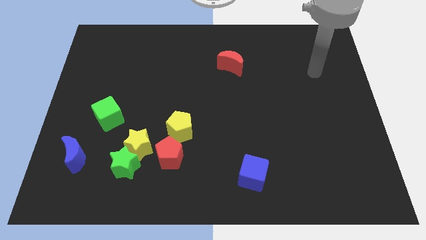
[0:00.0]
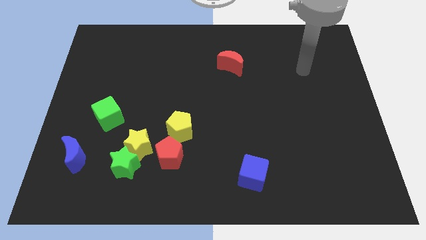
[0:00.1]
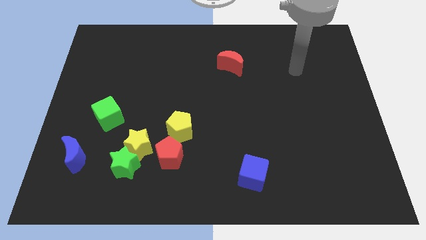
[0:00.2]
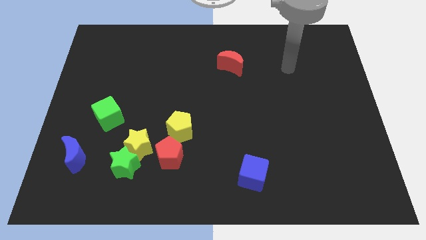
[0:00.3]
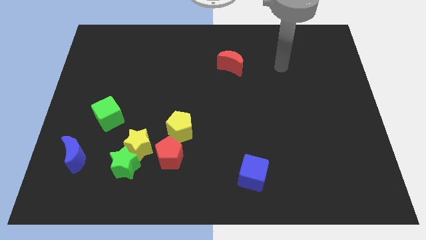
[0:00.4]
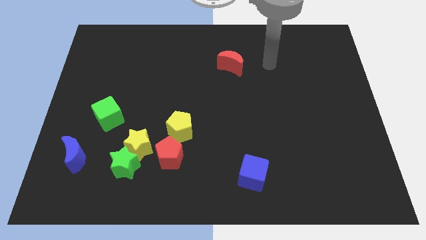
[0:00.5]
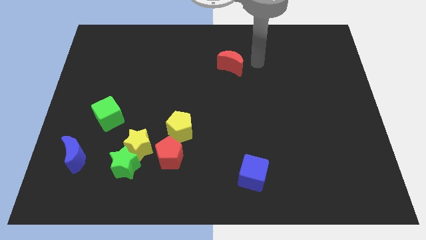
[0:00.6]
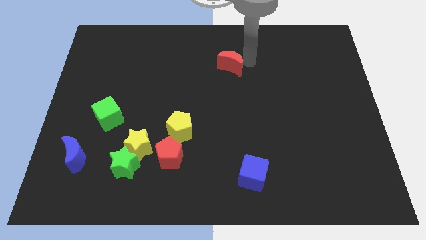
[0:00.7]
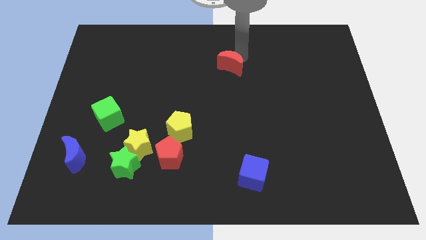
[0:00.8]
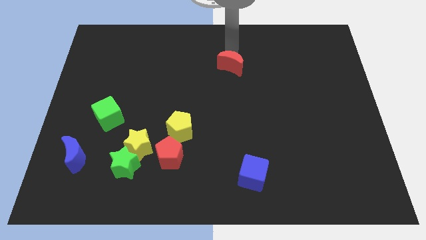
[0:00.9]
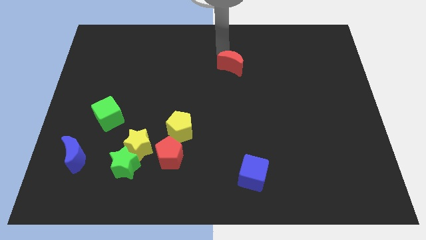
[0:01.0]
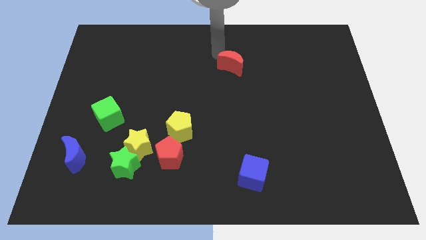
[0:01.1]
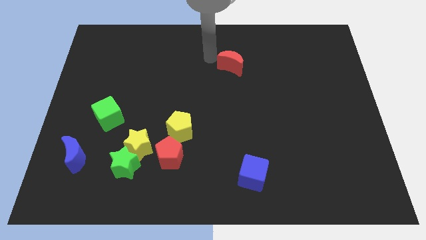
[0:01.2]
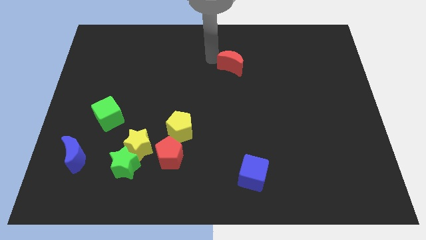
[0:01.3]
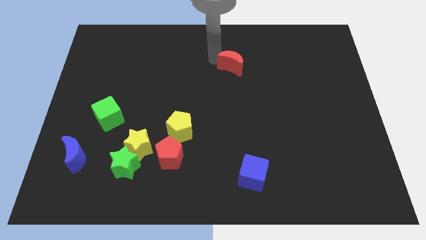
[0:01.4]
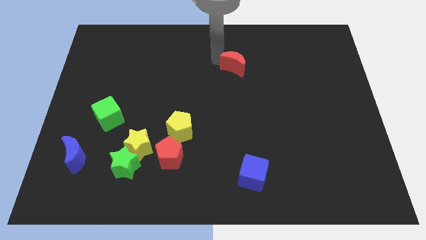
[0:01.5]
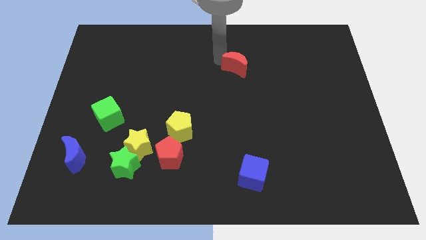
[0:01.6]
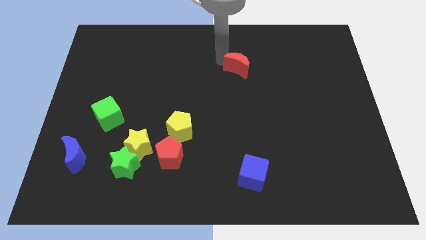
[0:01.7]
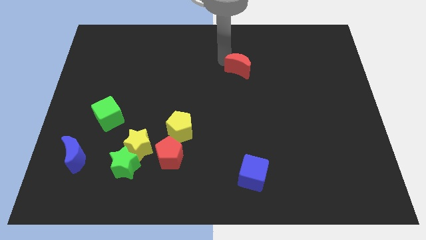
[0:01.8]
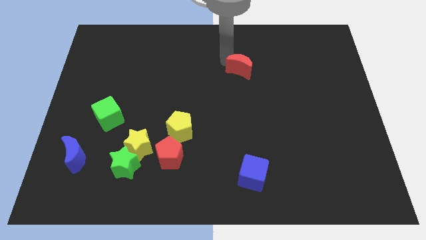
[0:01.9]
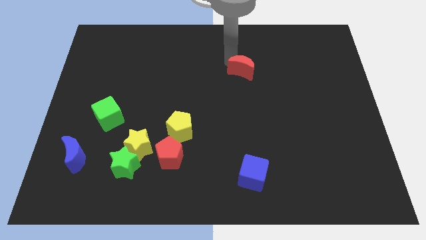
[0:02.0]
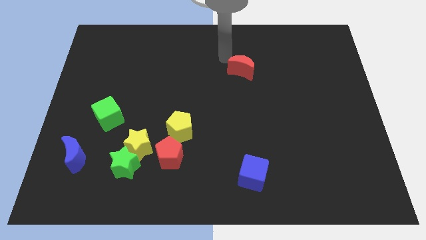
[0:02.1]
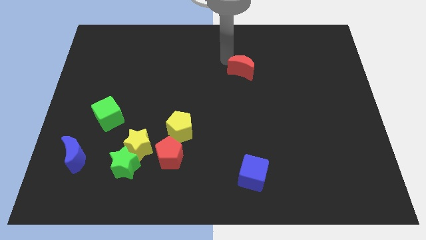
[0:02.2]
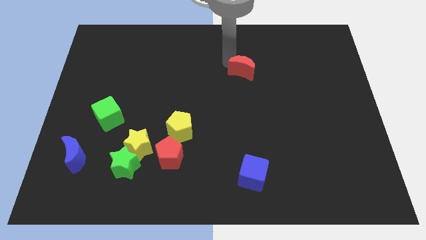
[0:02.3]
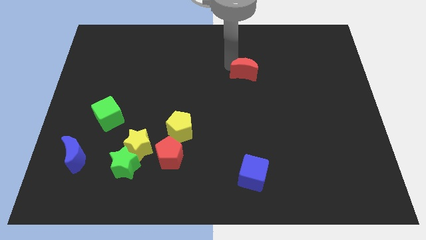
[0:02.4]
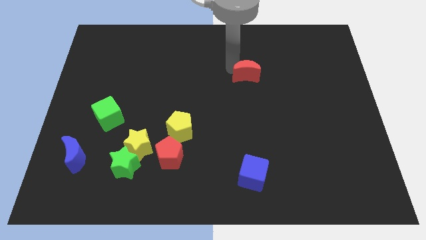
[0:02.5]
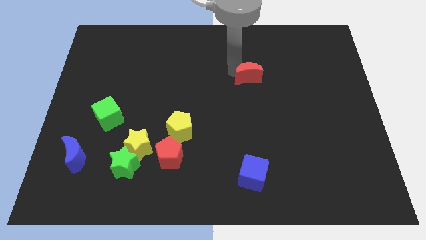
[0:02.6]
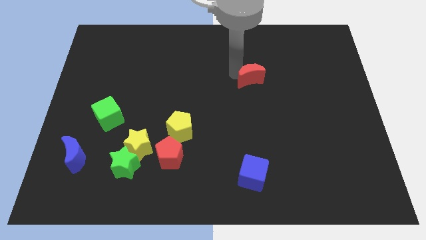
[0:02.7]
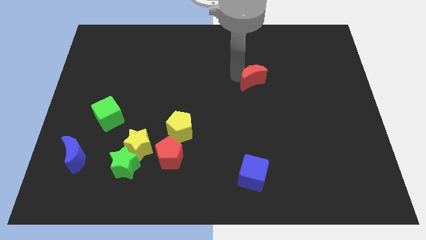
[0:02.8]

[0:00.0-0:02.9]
slide the red moon diagonally downwards and to the right a bit

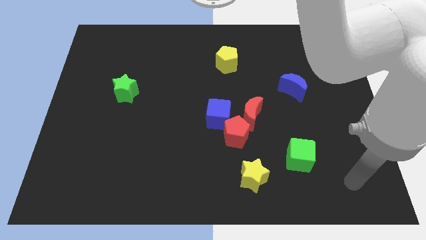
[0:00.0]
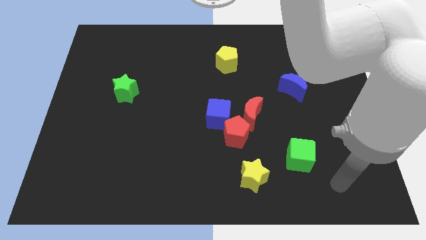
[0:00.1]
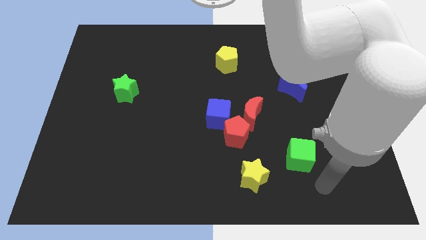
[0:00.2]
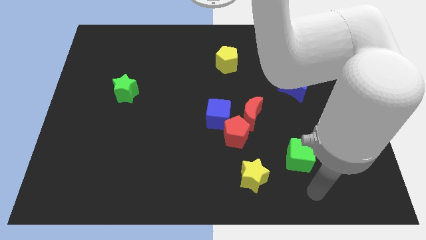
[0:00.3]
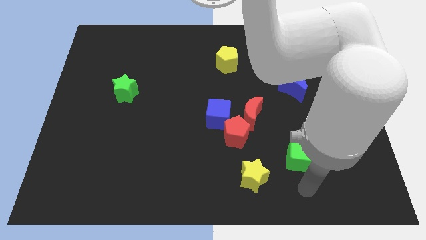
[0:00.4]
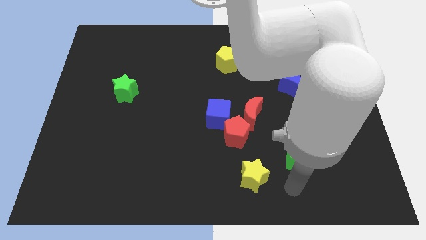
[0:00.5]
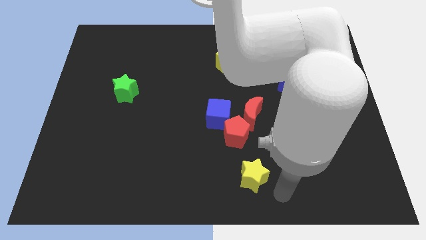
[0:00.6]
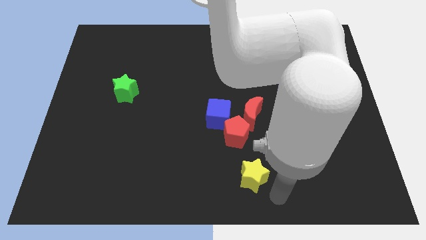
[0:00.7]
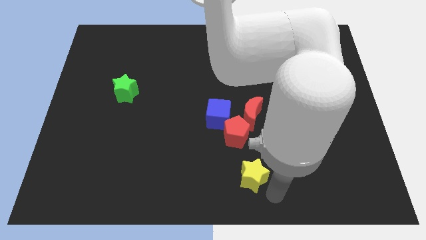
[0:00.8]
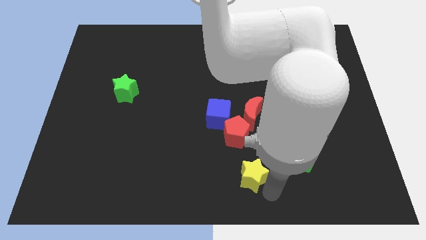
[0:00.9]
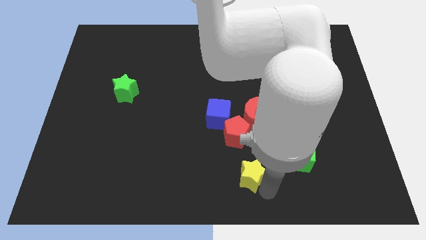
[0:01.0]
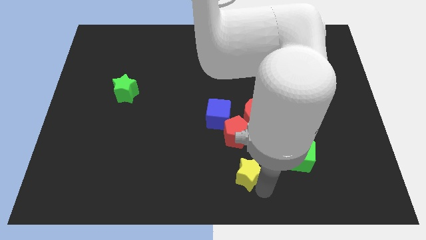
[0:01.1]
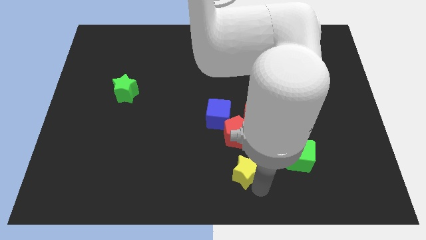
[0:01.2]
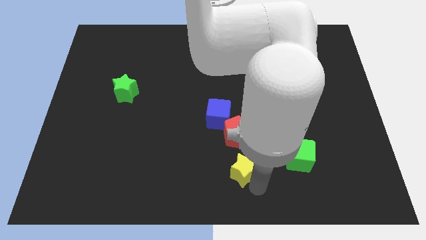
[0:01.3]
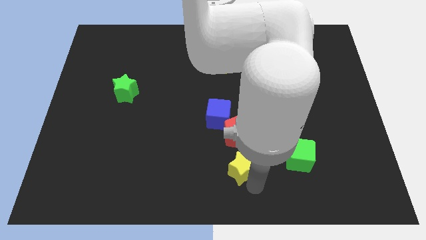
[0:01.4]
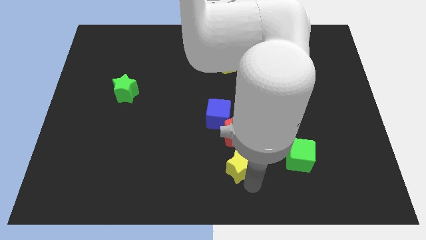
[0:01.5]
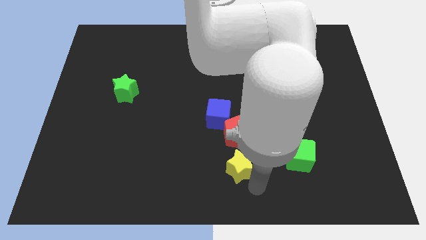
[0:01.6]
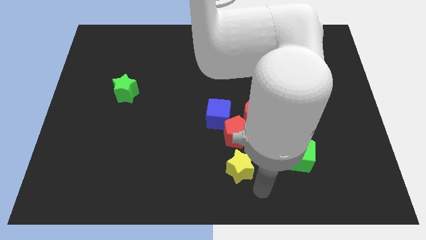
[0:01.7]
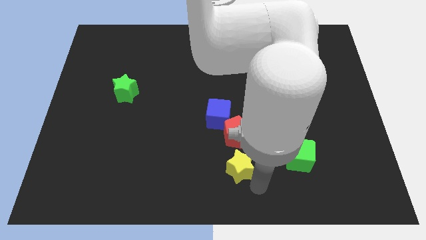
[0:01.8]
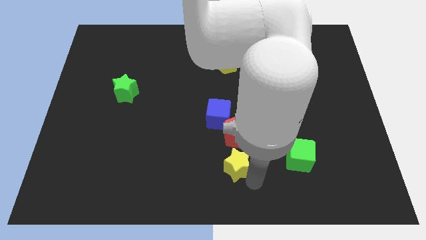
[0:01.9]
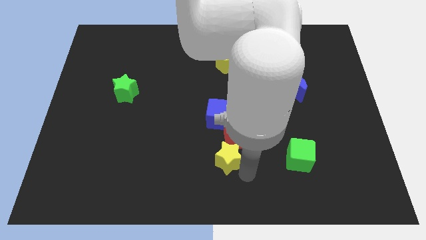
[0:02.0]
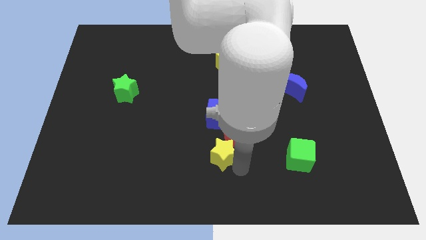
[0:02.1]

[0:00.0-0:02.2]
move the yellow star slightly diagonally upwards and left

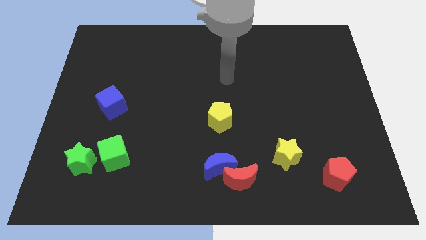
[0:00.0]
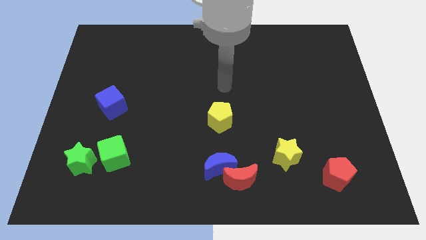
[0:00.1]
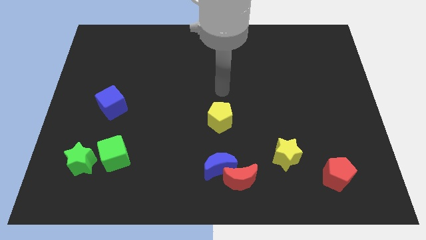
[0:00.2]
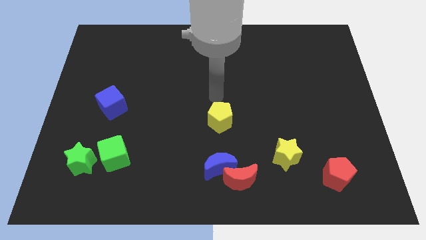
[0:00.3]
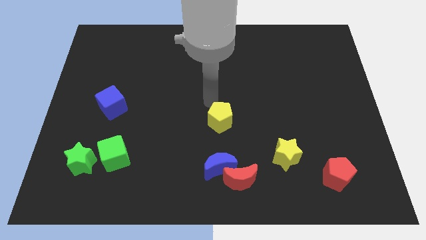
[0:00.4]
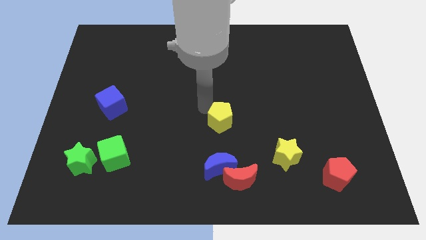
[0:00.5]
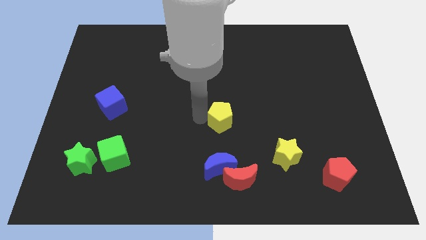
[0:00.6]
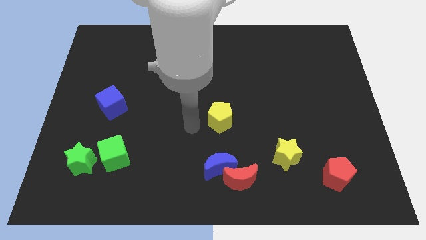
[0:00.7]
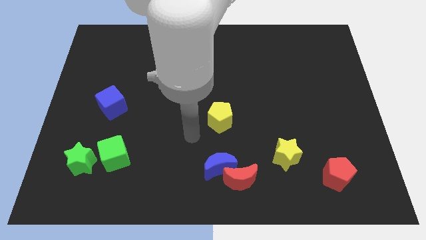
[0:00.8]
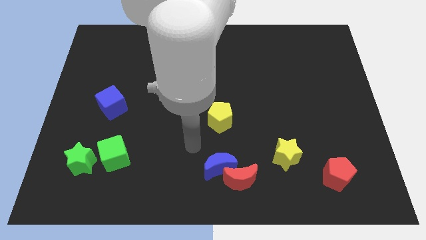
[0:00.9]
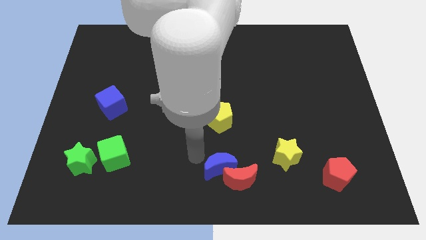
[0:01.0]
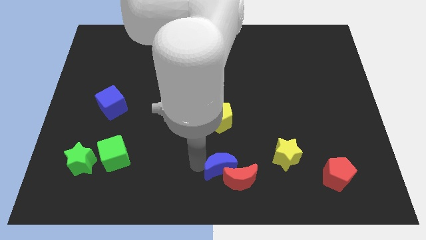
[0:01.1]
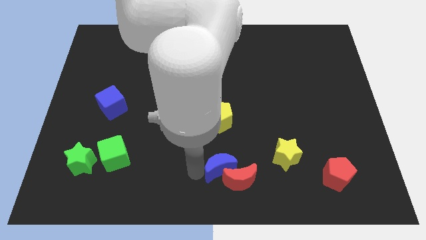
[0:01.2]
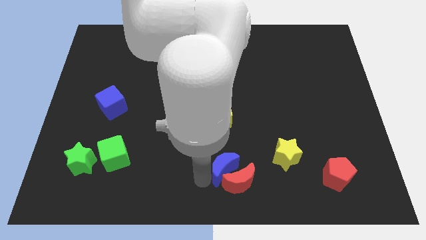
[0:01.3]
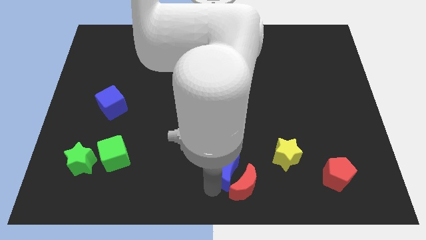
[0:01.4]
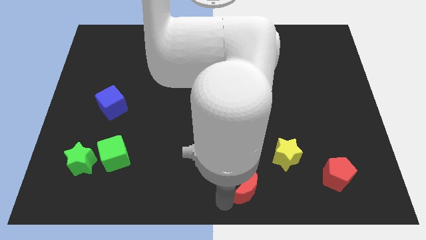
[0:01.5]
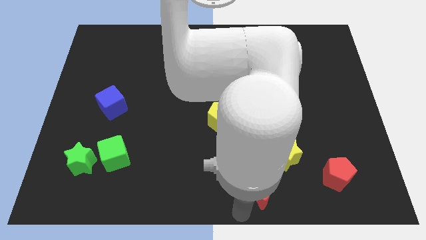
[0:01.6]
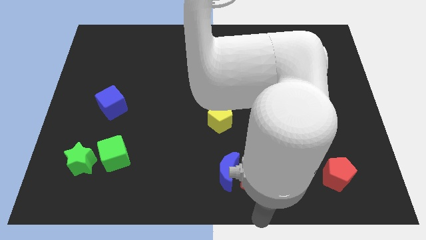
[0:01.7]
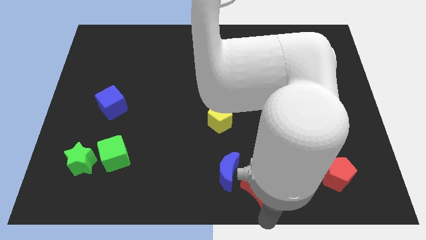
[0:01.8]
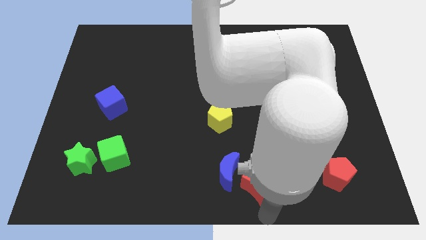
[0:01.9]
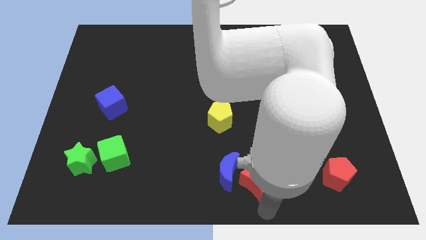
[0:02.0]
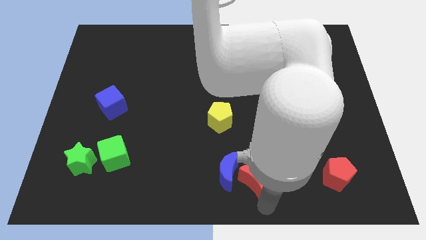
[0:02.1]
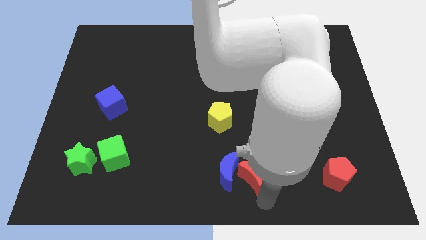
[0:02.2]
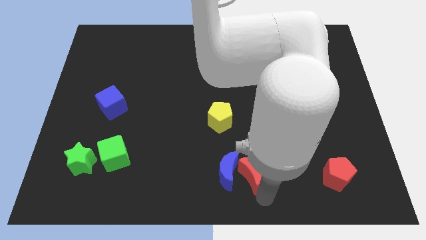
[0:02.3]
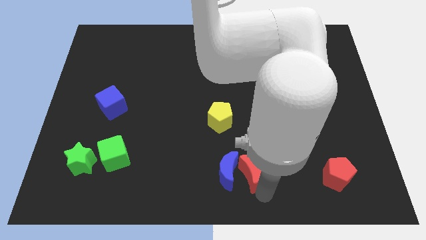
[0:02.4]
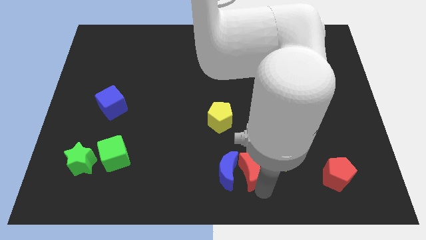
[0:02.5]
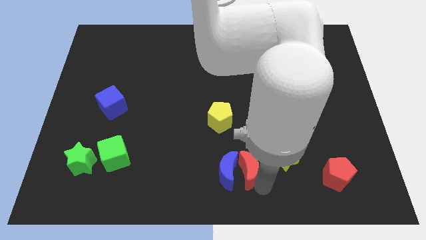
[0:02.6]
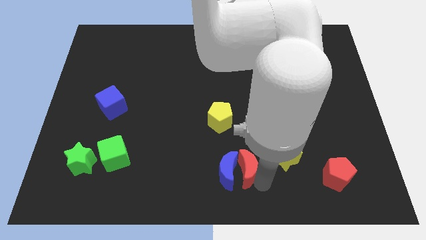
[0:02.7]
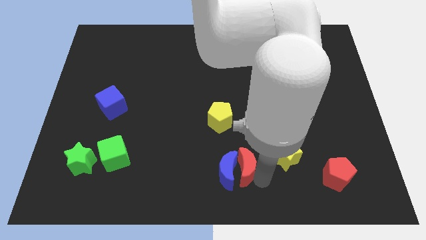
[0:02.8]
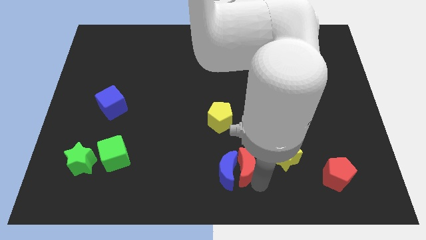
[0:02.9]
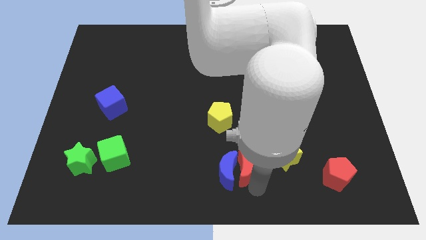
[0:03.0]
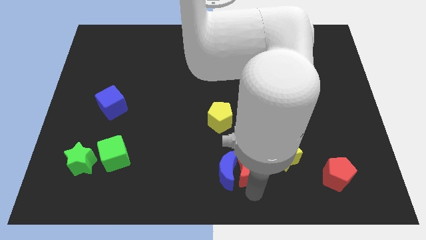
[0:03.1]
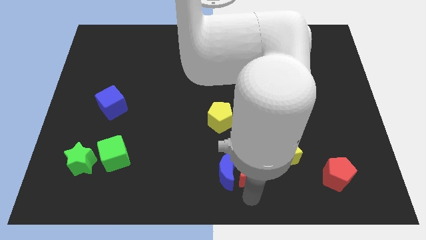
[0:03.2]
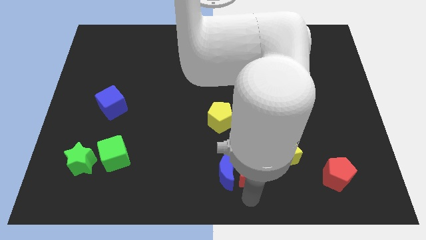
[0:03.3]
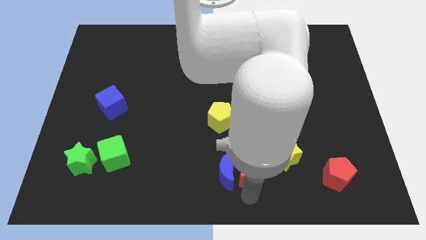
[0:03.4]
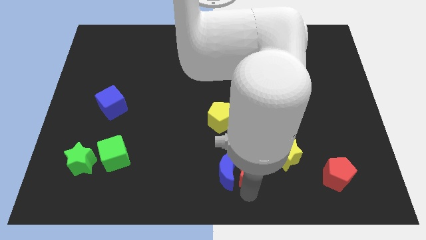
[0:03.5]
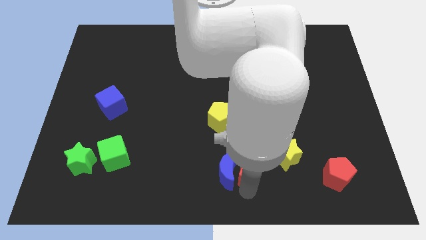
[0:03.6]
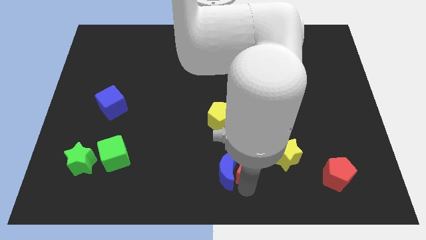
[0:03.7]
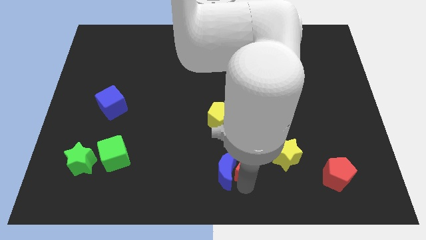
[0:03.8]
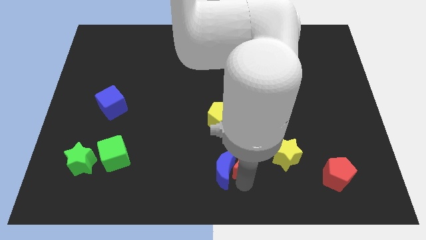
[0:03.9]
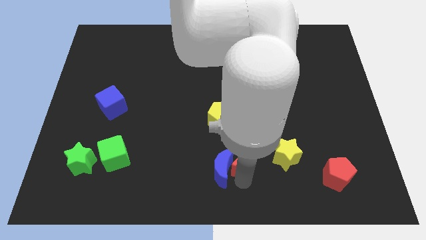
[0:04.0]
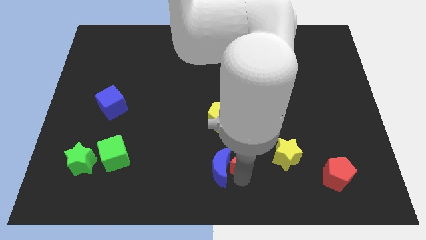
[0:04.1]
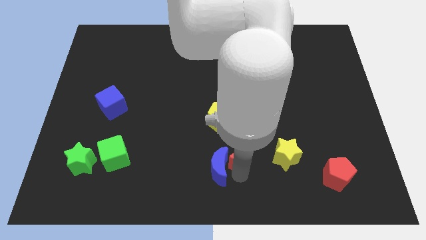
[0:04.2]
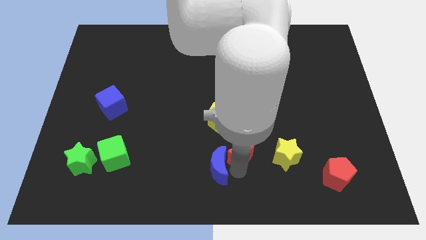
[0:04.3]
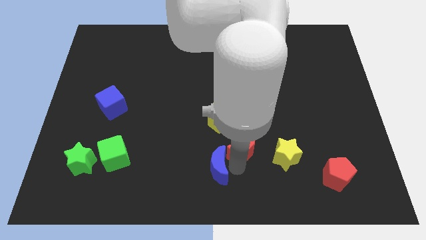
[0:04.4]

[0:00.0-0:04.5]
slightly push the red moon upwards
